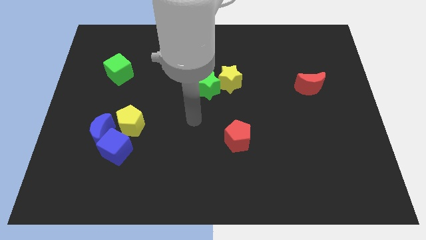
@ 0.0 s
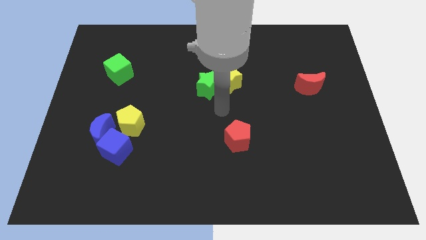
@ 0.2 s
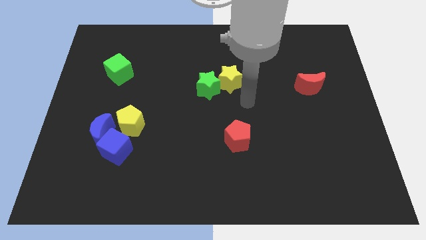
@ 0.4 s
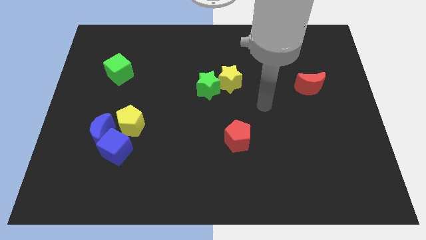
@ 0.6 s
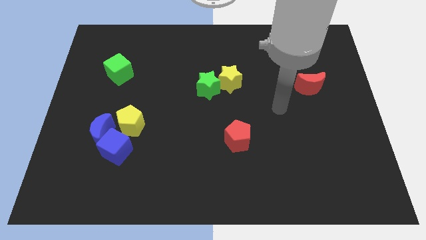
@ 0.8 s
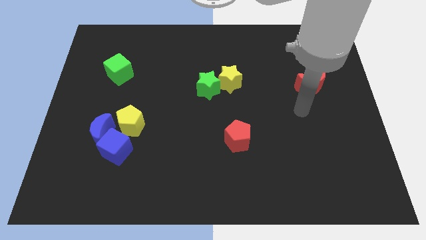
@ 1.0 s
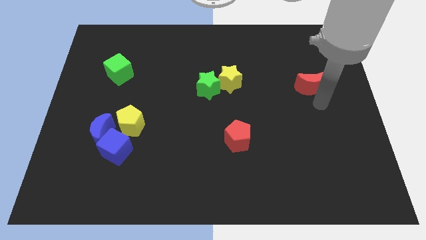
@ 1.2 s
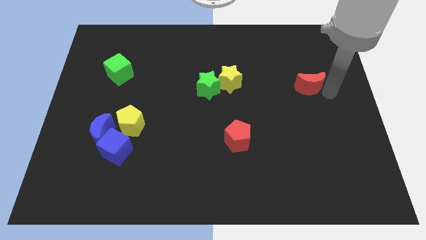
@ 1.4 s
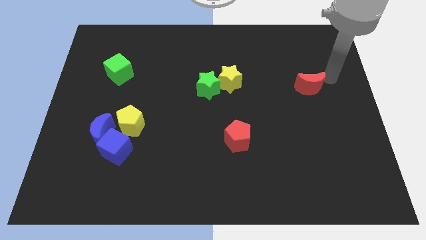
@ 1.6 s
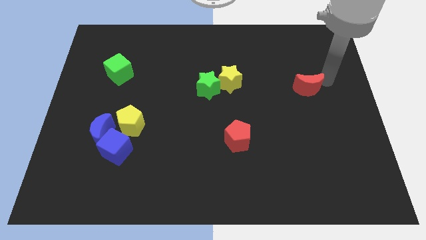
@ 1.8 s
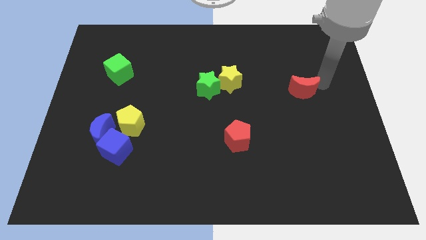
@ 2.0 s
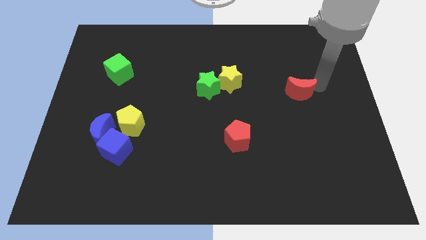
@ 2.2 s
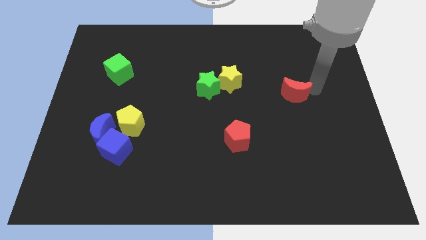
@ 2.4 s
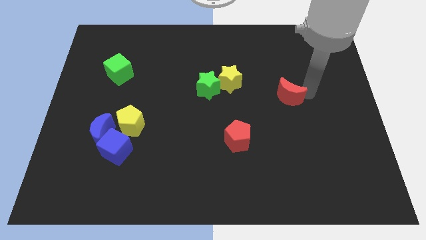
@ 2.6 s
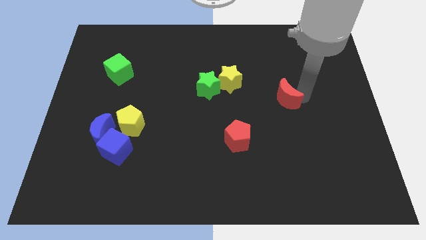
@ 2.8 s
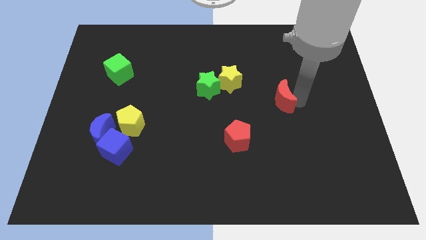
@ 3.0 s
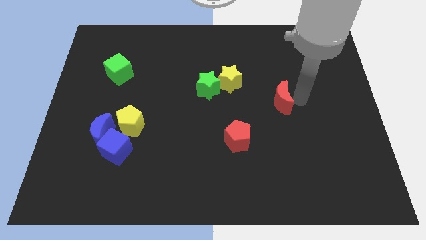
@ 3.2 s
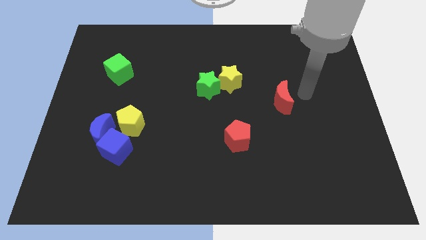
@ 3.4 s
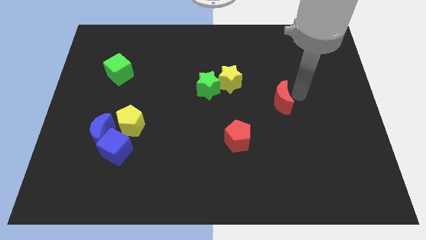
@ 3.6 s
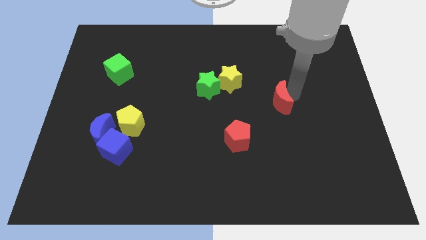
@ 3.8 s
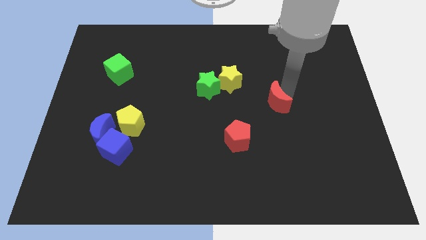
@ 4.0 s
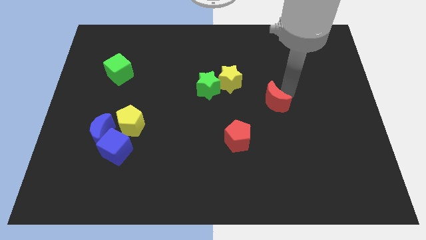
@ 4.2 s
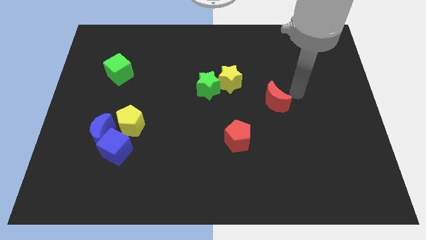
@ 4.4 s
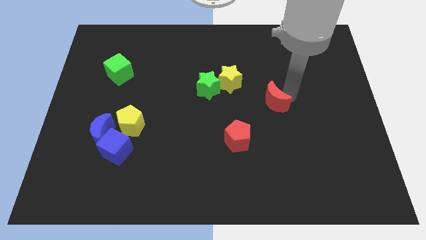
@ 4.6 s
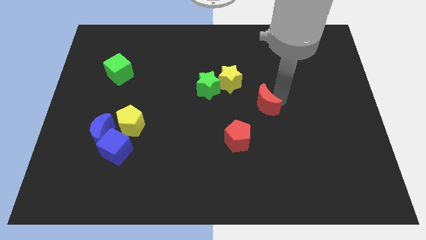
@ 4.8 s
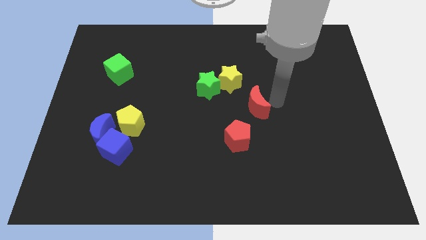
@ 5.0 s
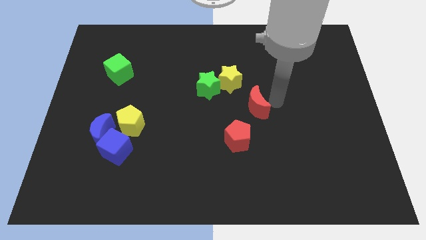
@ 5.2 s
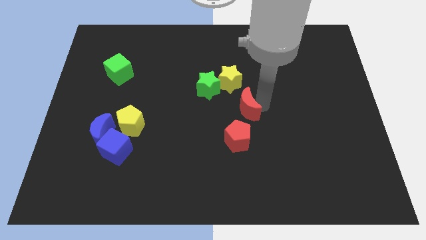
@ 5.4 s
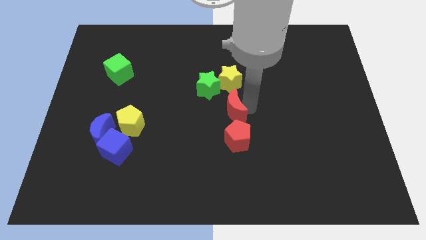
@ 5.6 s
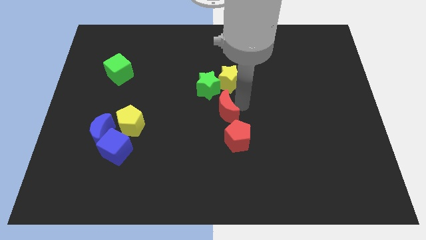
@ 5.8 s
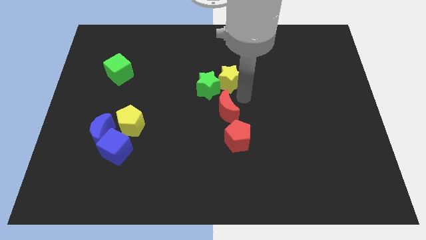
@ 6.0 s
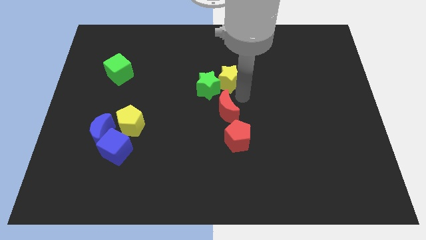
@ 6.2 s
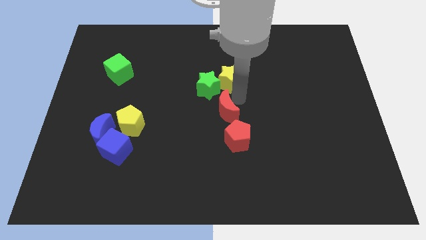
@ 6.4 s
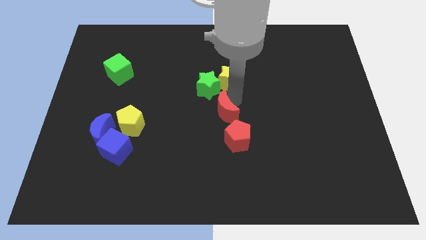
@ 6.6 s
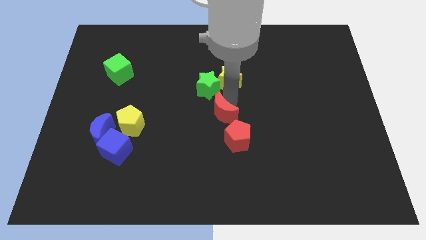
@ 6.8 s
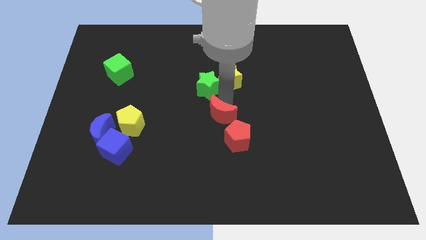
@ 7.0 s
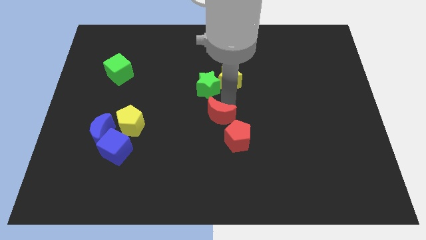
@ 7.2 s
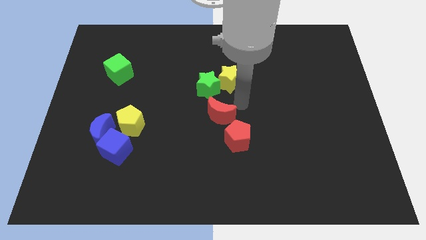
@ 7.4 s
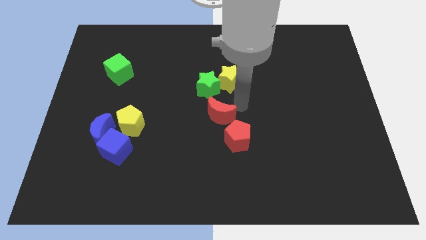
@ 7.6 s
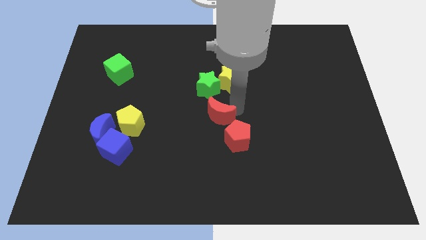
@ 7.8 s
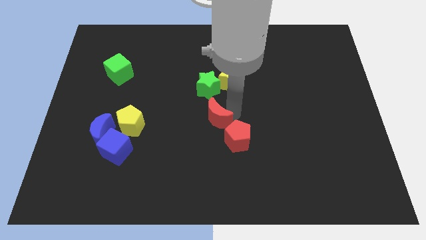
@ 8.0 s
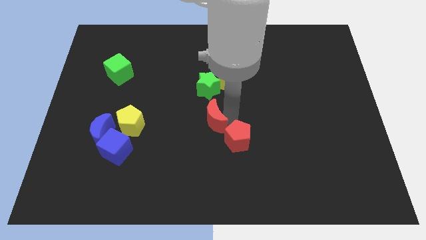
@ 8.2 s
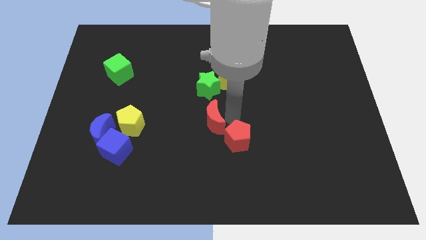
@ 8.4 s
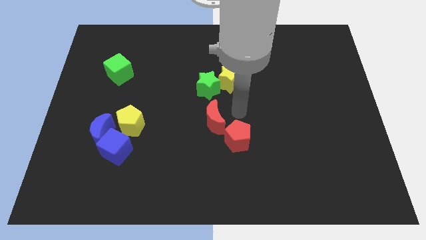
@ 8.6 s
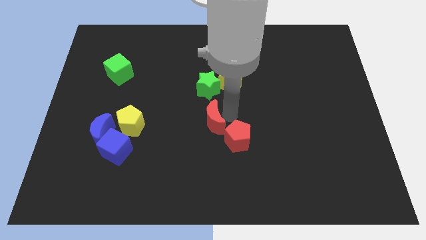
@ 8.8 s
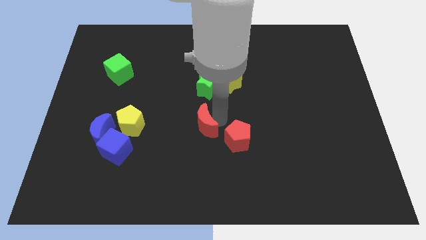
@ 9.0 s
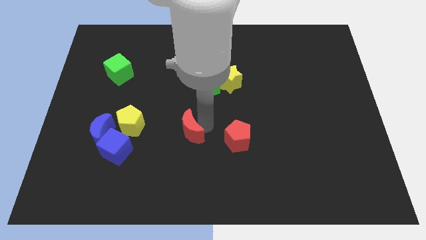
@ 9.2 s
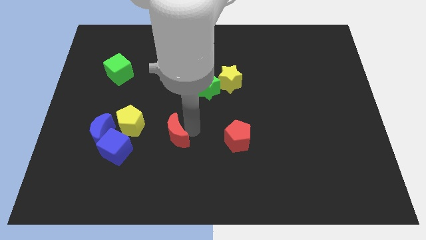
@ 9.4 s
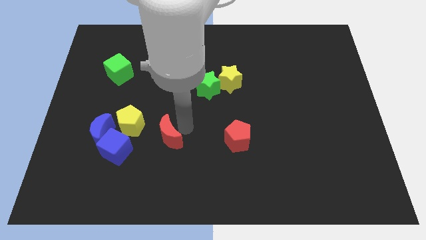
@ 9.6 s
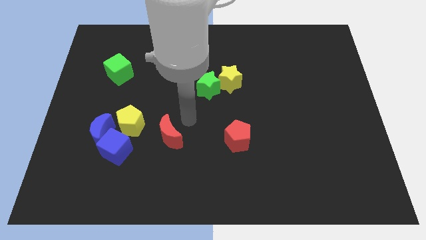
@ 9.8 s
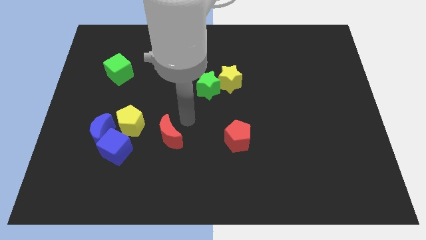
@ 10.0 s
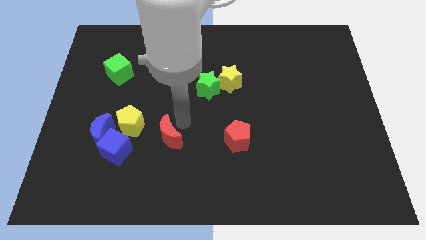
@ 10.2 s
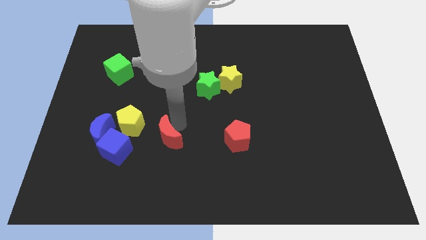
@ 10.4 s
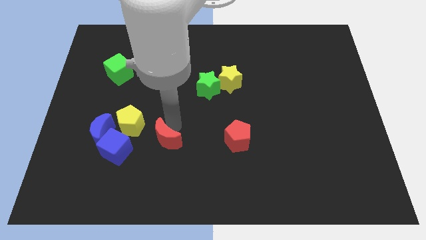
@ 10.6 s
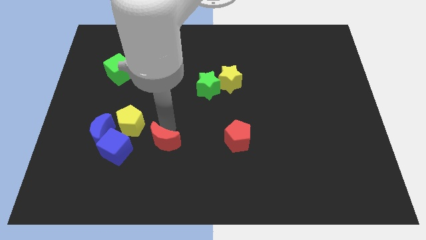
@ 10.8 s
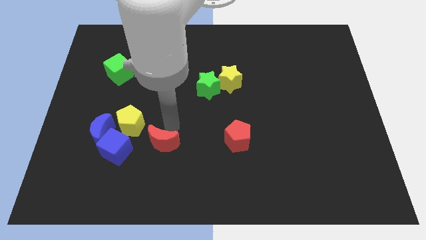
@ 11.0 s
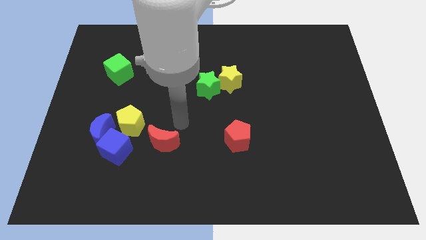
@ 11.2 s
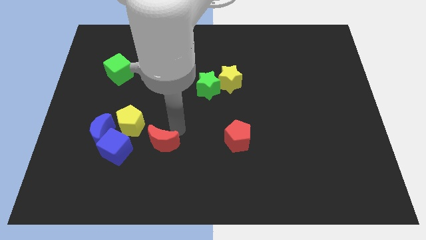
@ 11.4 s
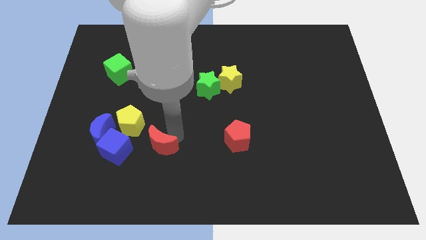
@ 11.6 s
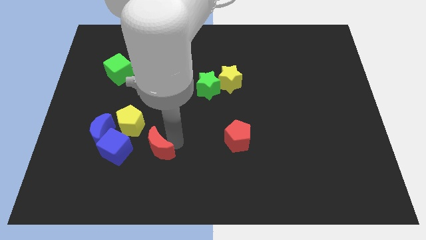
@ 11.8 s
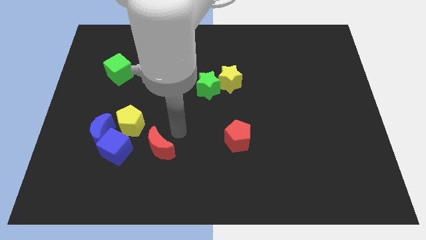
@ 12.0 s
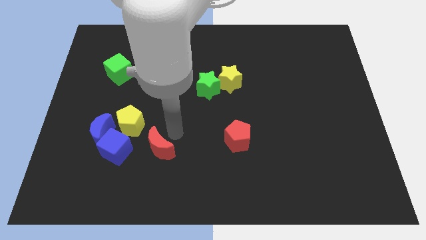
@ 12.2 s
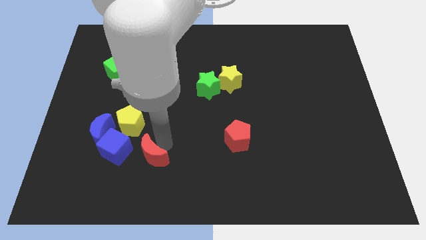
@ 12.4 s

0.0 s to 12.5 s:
move the red moon to the bottom right side of the blue cube
